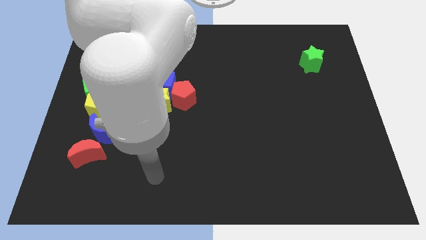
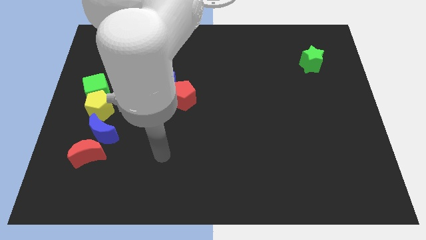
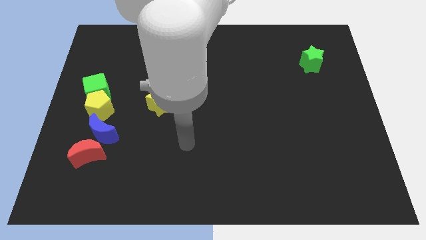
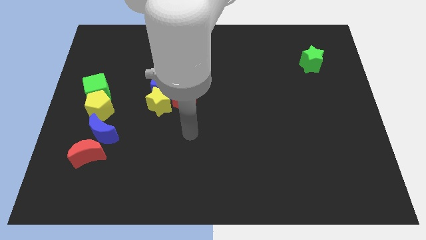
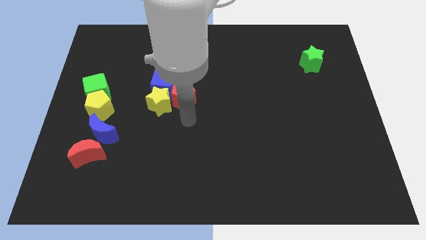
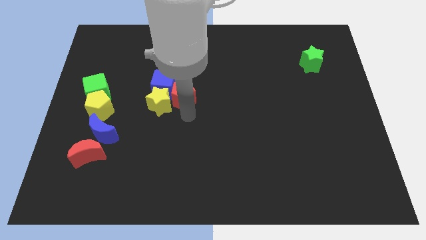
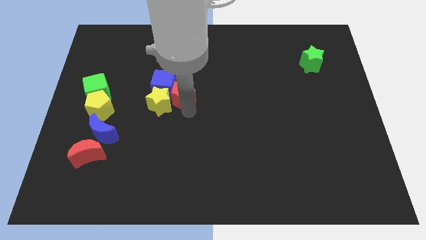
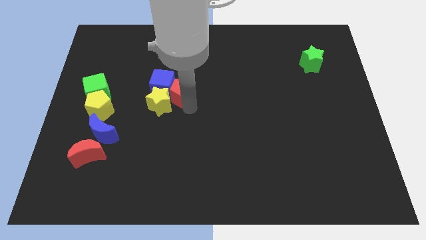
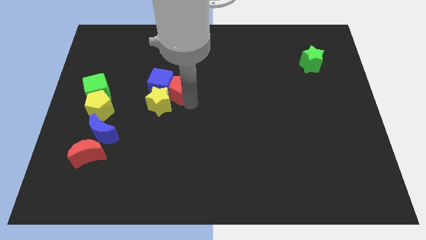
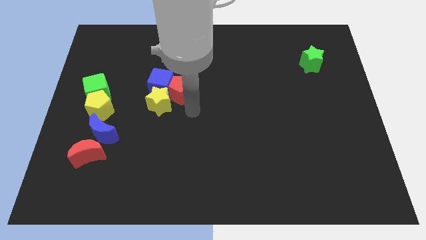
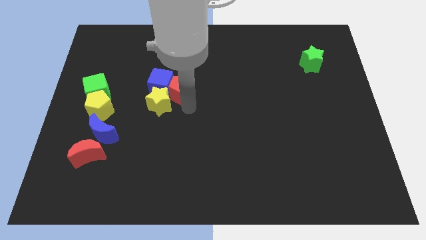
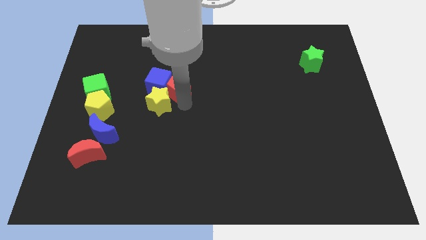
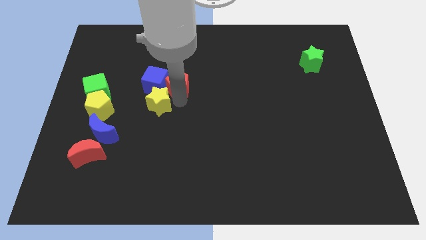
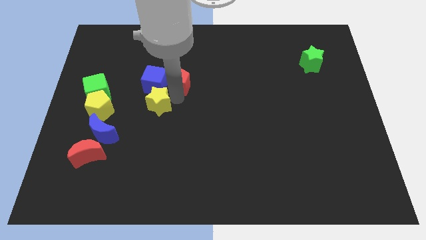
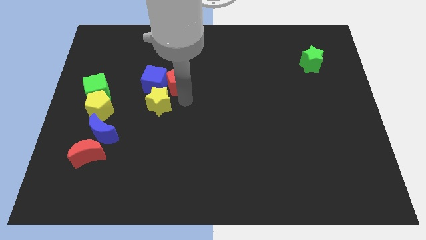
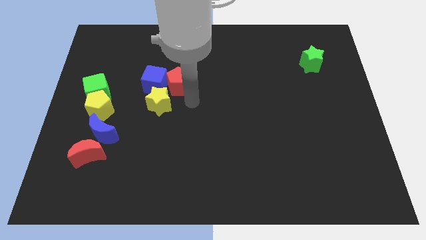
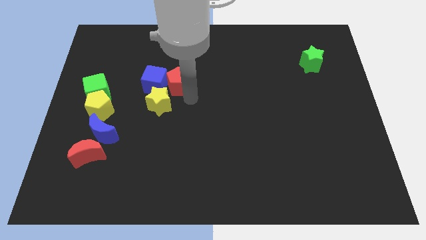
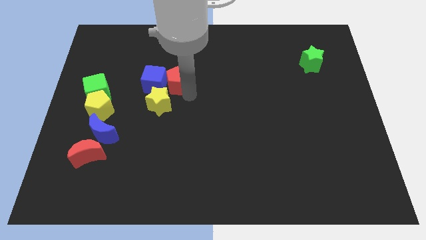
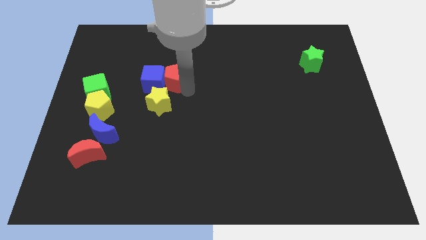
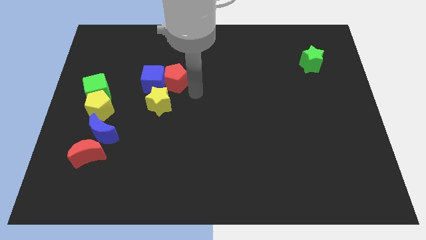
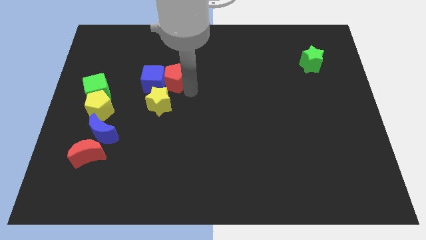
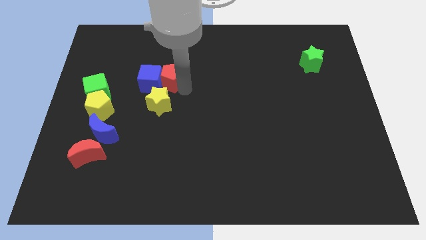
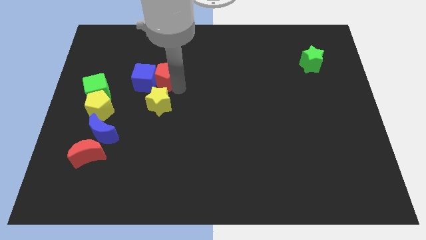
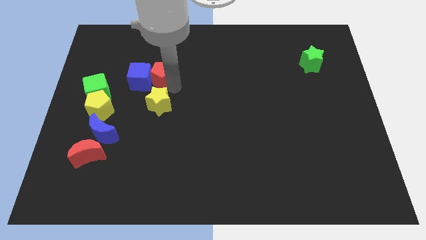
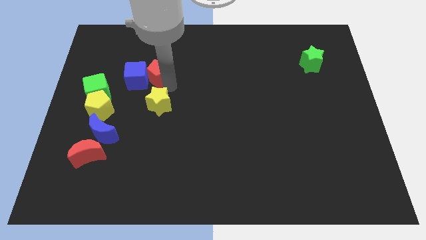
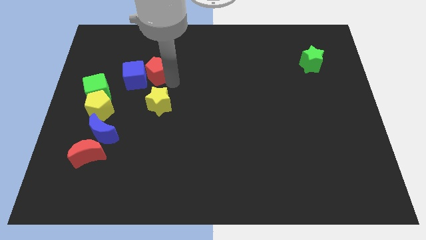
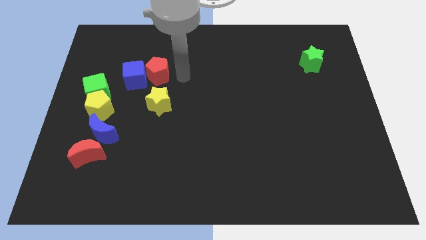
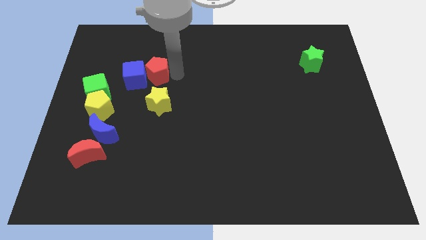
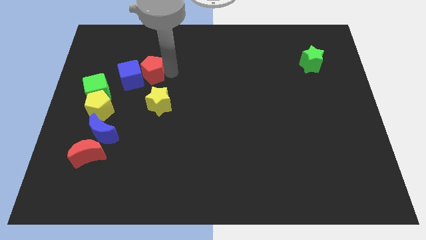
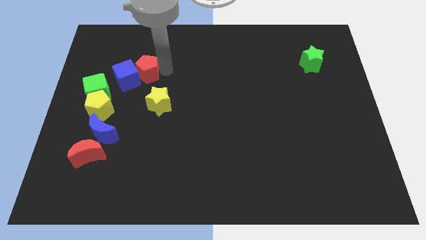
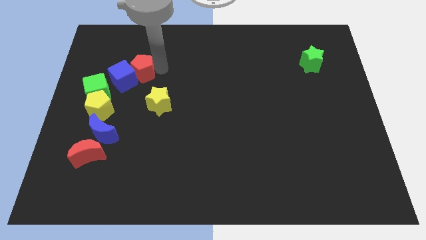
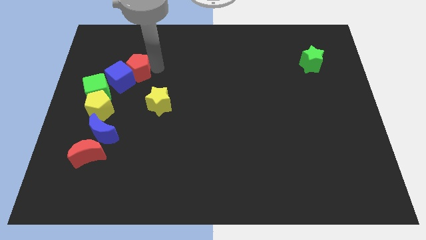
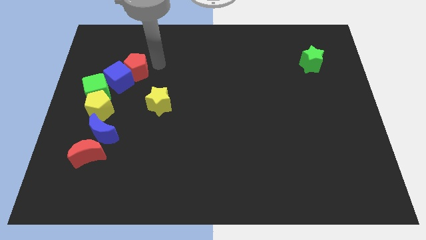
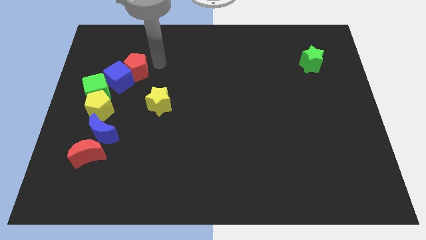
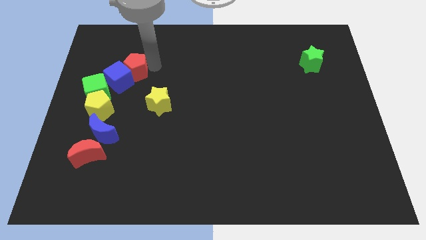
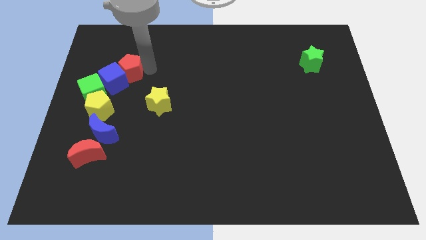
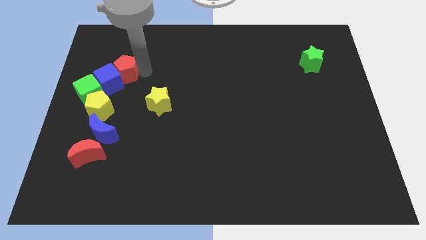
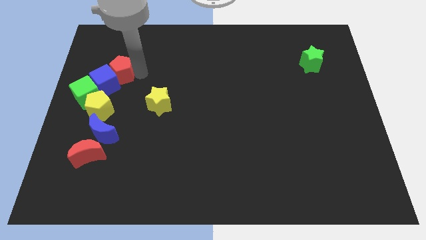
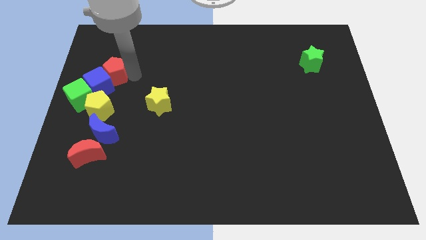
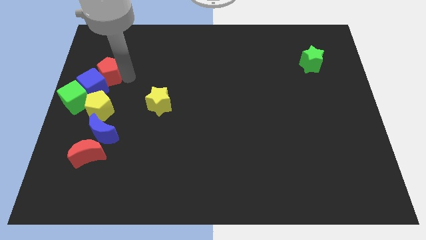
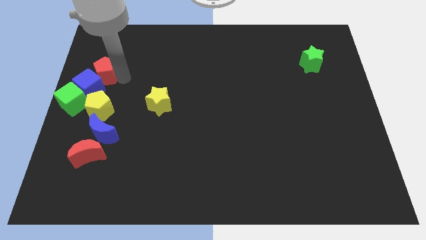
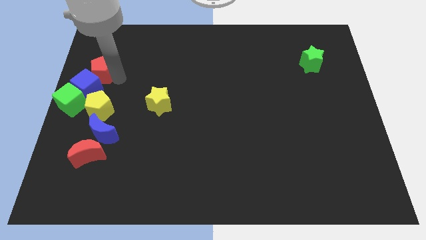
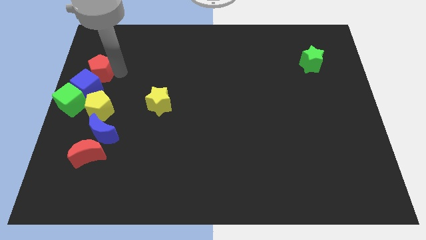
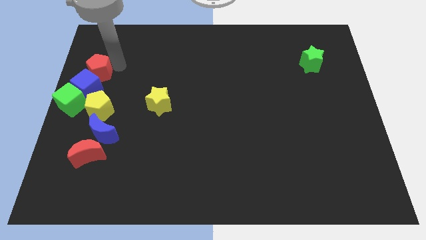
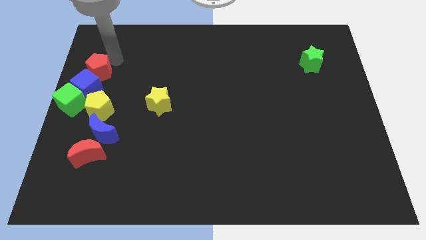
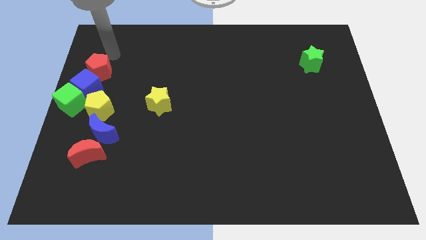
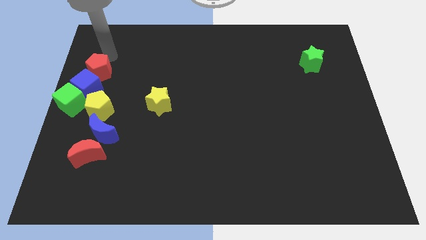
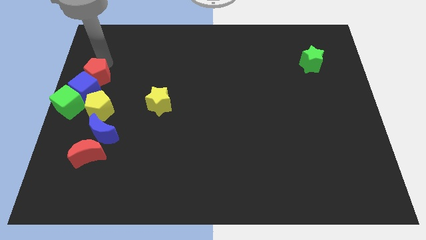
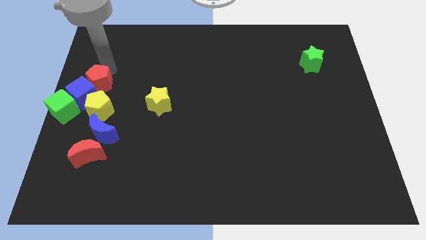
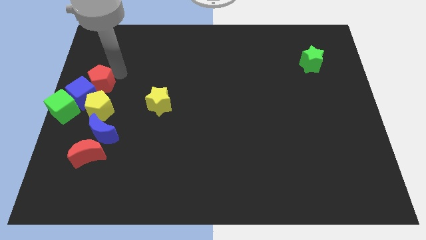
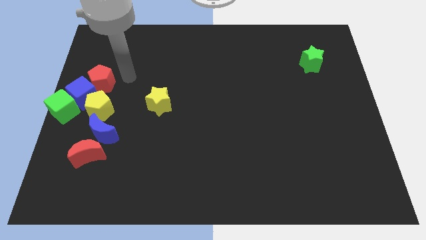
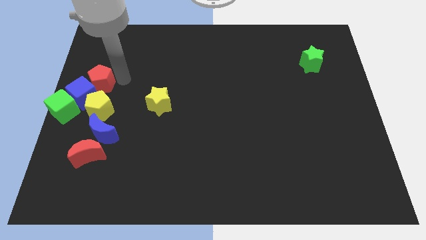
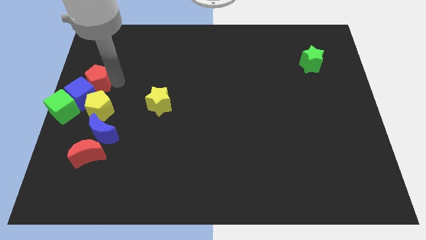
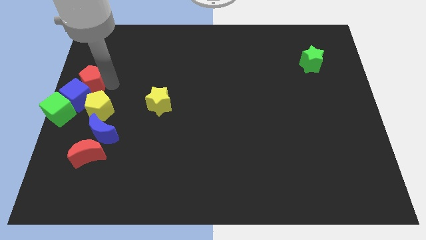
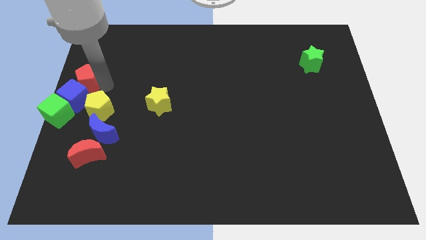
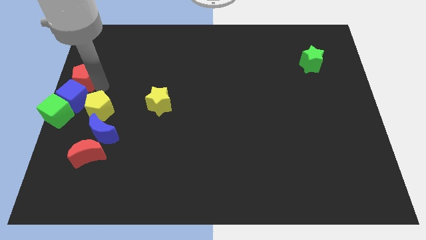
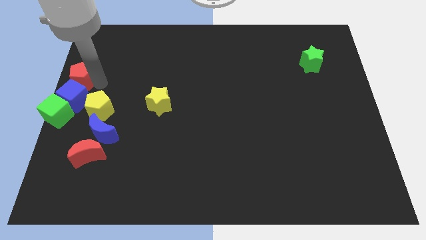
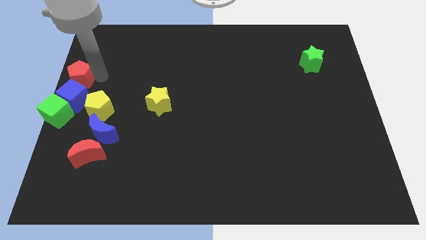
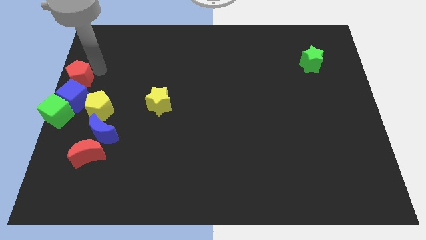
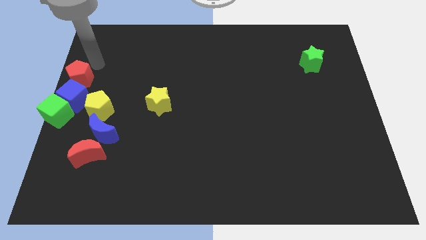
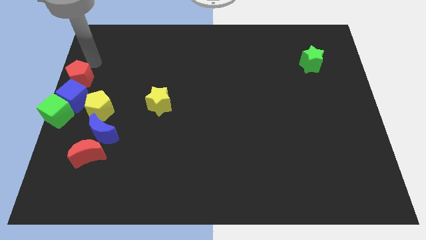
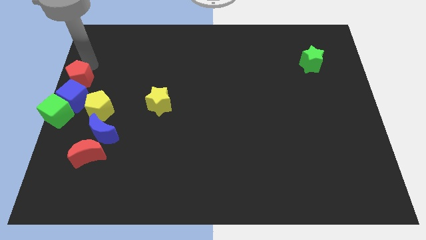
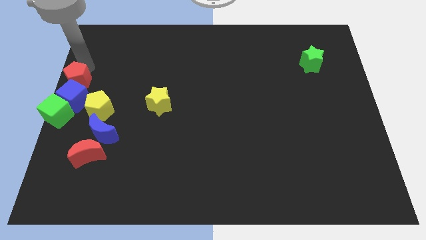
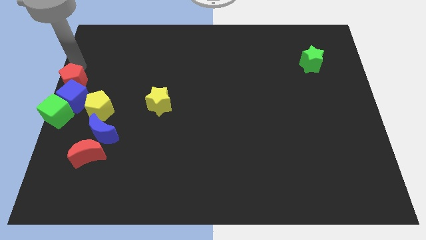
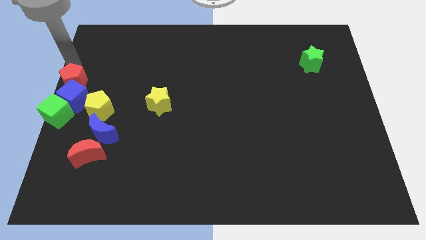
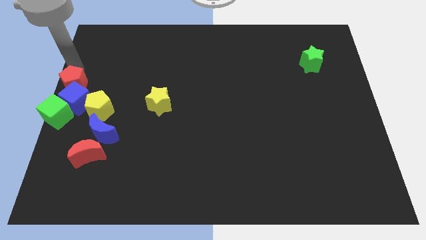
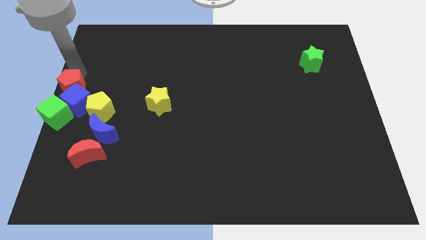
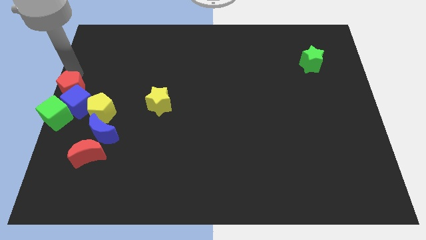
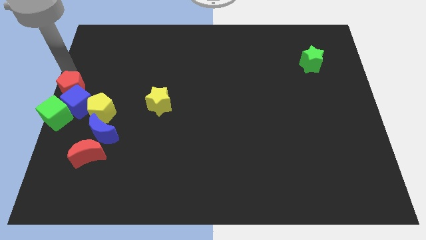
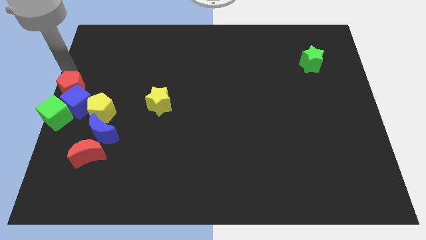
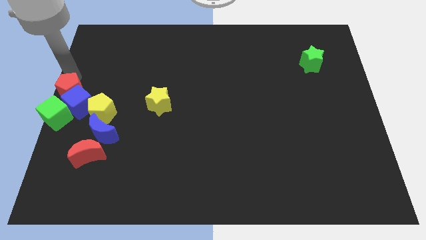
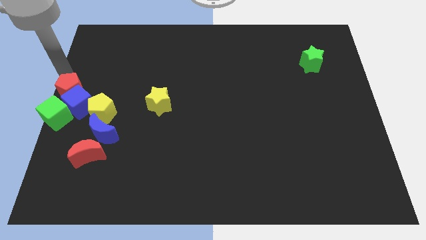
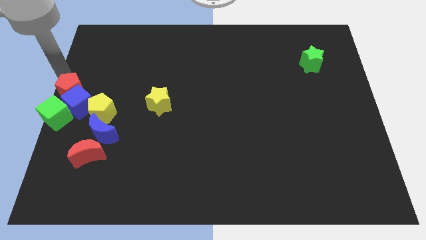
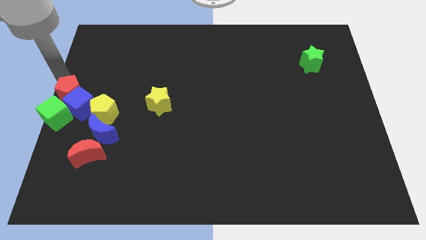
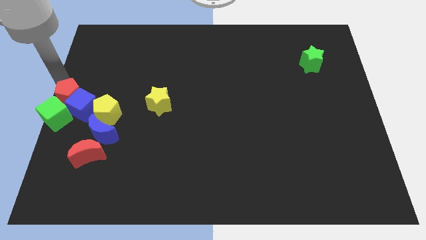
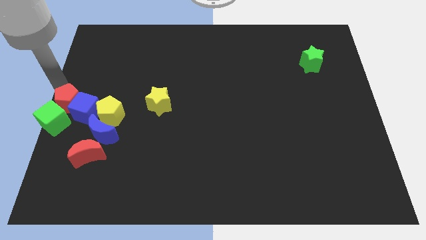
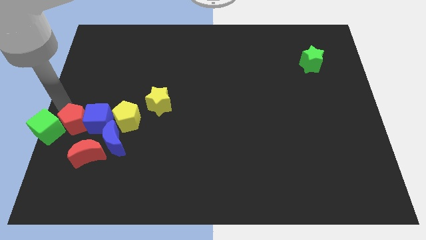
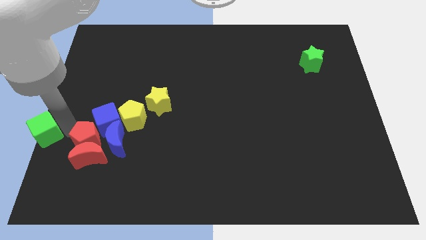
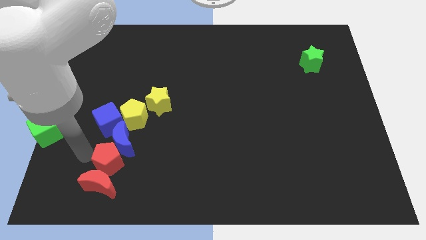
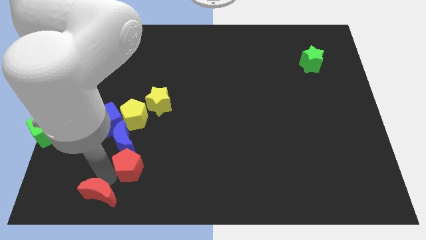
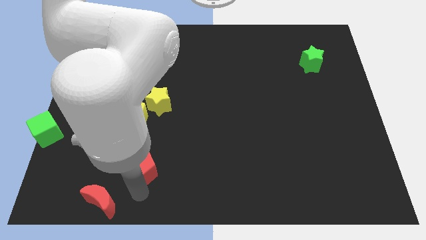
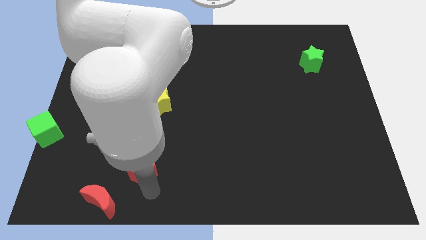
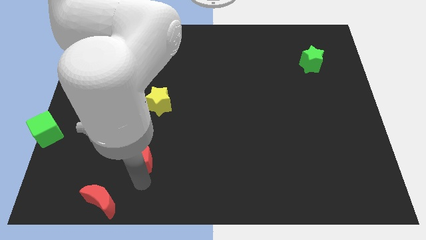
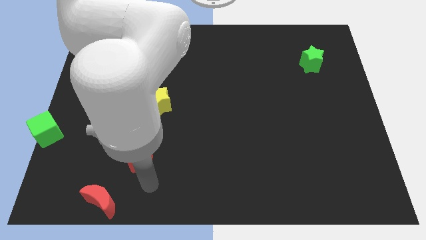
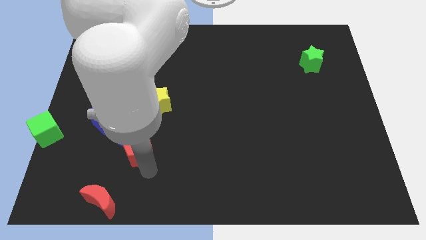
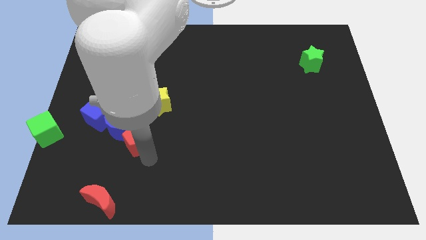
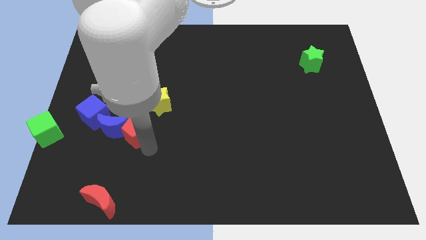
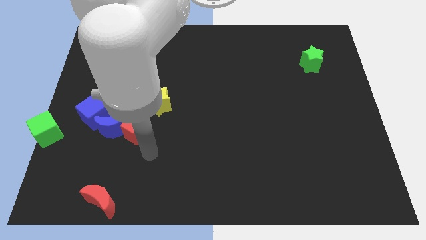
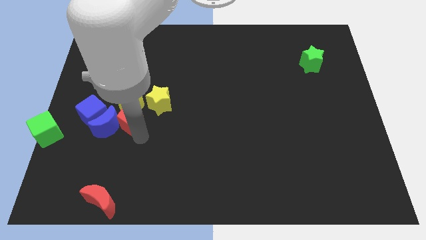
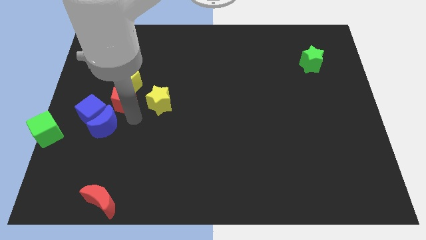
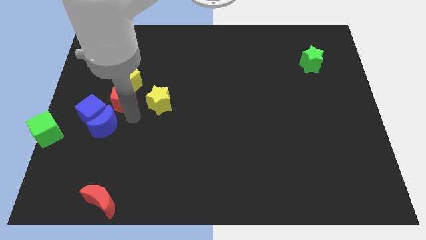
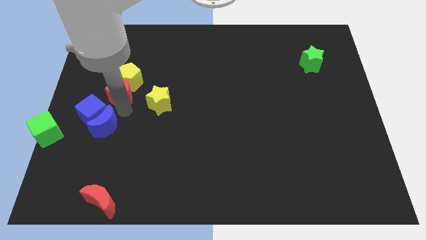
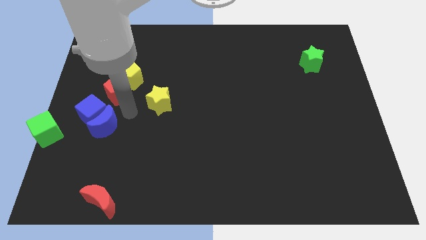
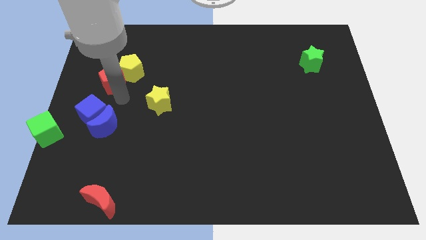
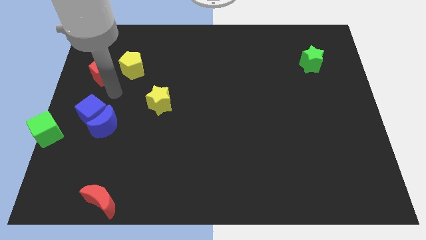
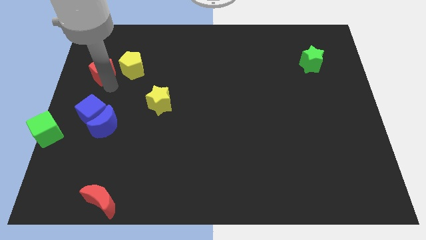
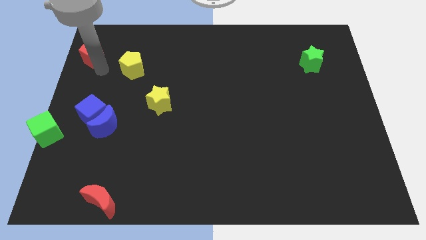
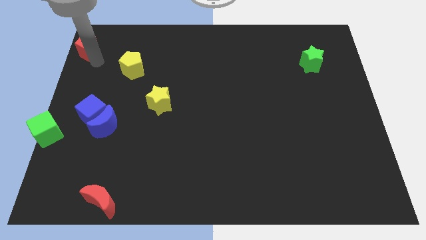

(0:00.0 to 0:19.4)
put the red pentagon to the upper left corner
